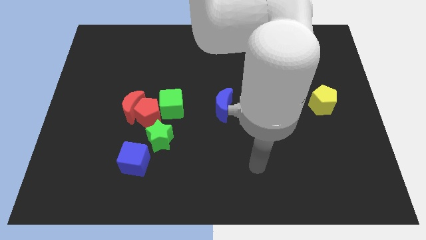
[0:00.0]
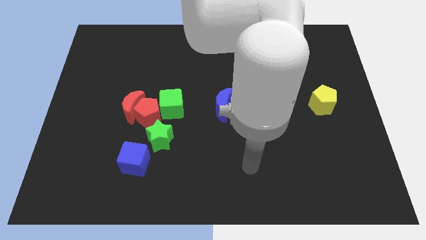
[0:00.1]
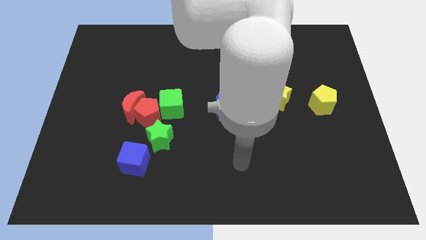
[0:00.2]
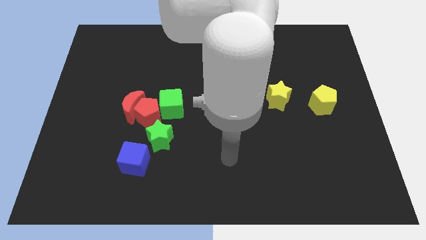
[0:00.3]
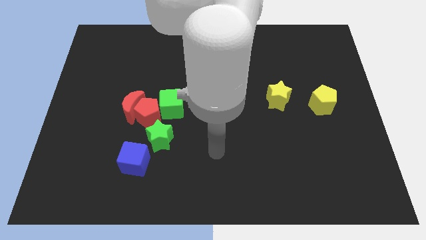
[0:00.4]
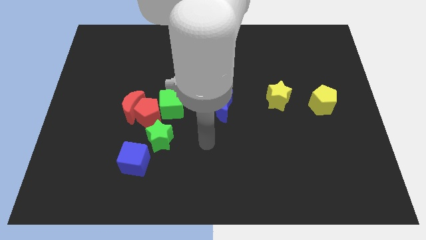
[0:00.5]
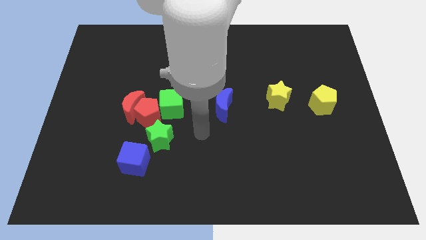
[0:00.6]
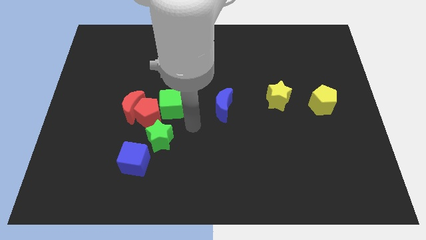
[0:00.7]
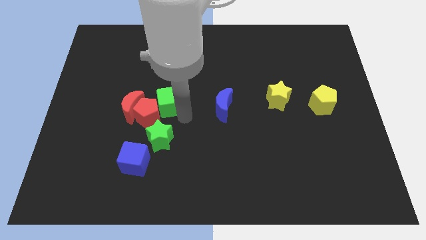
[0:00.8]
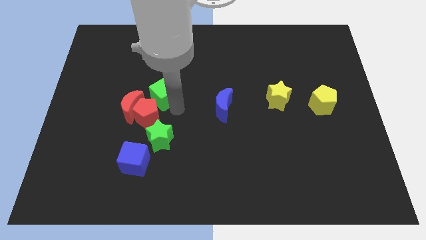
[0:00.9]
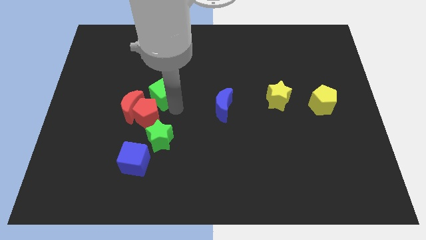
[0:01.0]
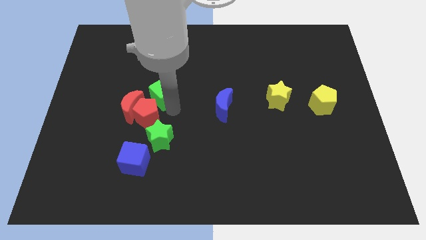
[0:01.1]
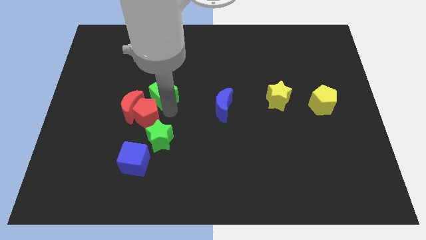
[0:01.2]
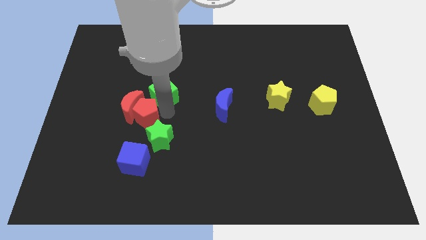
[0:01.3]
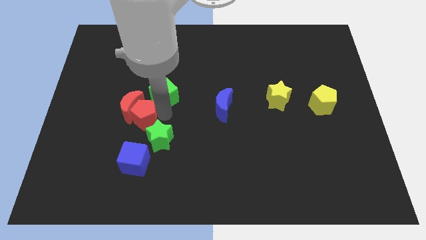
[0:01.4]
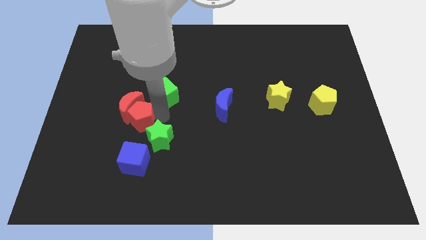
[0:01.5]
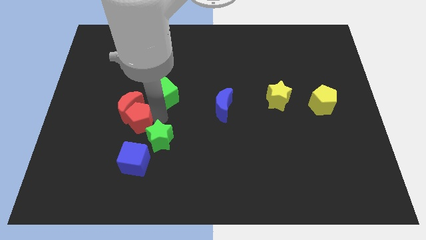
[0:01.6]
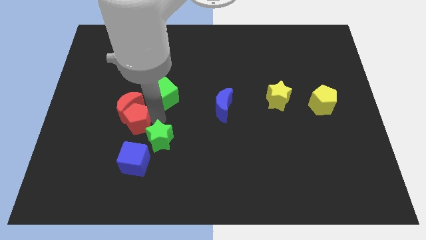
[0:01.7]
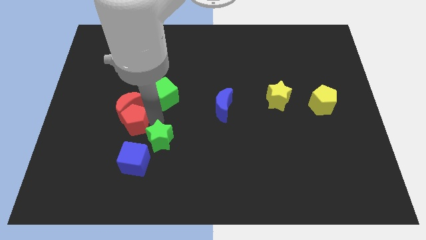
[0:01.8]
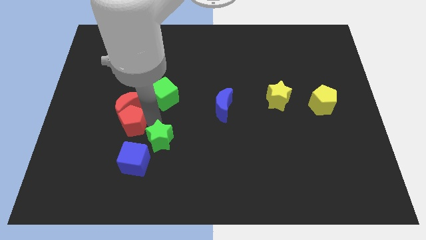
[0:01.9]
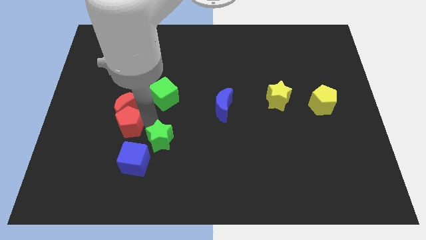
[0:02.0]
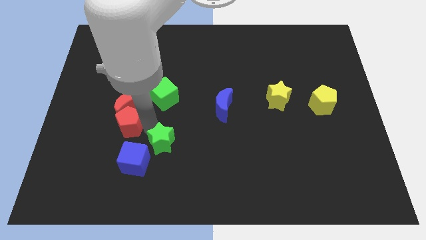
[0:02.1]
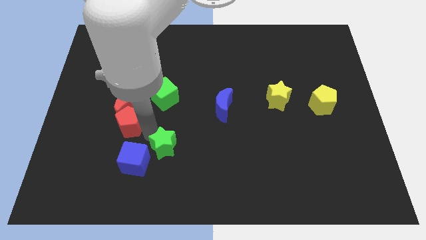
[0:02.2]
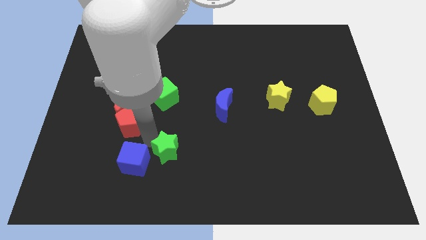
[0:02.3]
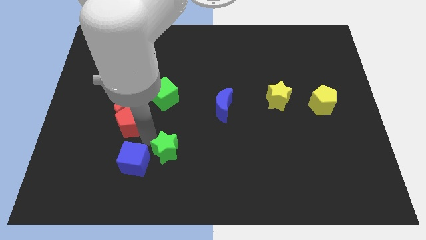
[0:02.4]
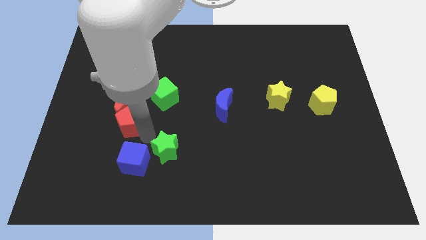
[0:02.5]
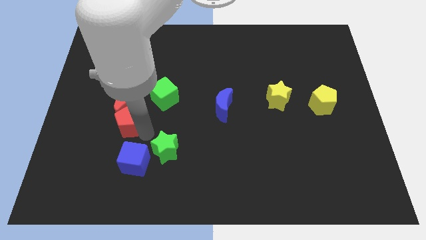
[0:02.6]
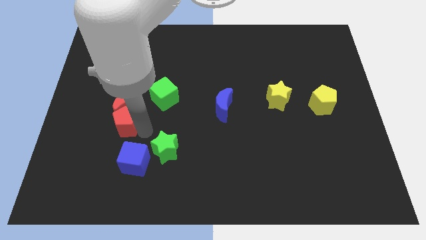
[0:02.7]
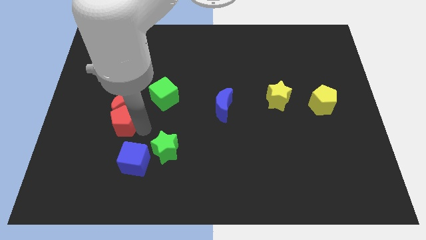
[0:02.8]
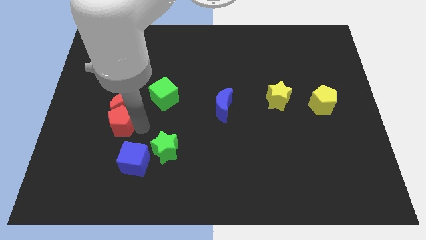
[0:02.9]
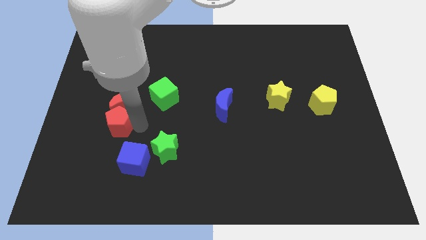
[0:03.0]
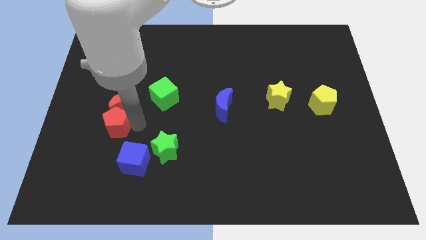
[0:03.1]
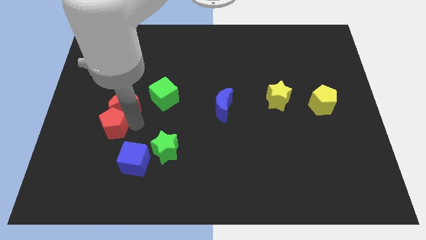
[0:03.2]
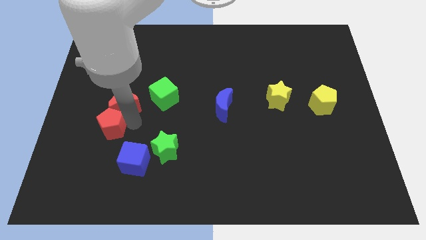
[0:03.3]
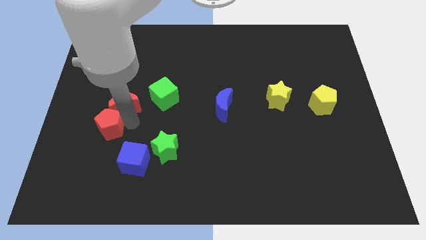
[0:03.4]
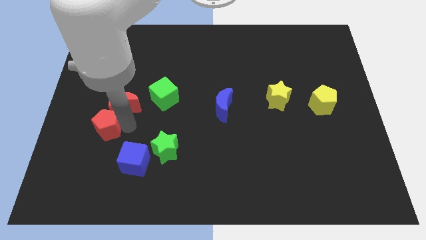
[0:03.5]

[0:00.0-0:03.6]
move the red pentagon away from the red moon, green cube, and green star

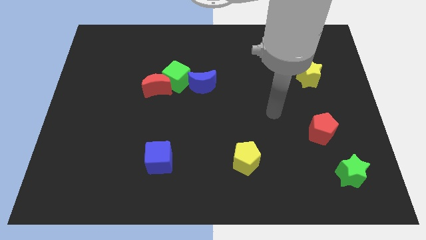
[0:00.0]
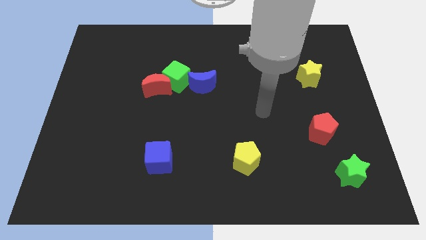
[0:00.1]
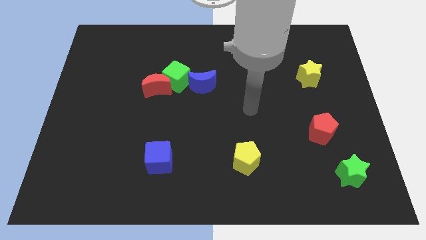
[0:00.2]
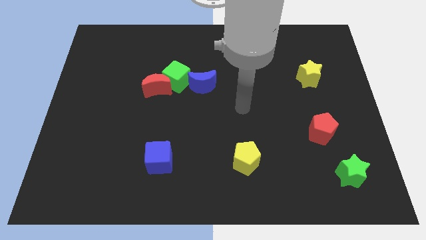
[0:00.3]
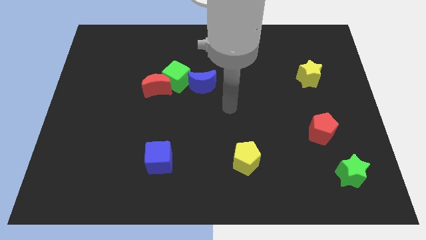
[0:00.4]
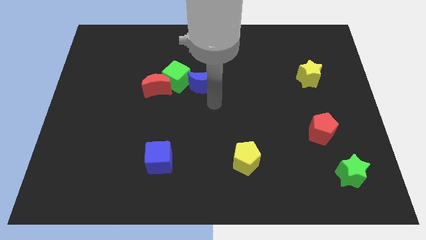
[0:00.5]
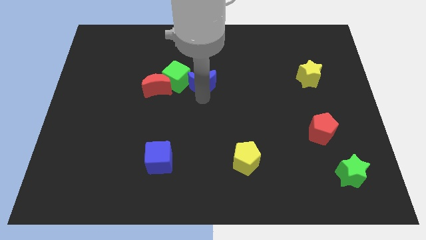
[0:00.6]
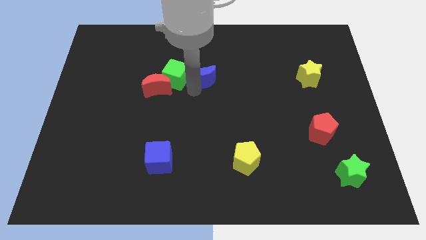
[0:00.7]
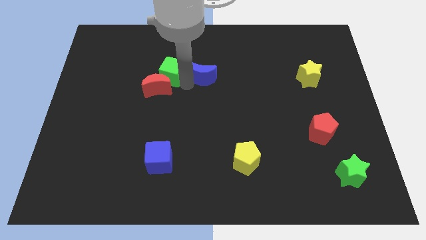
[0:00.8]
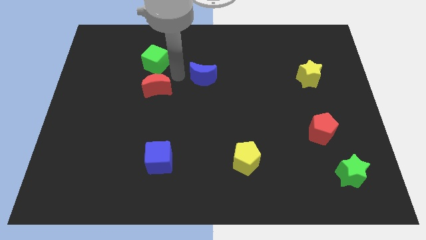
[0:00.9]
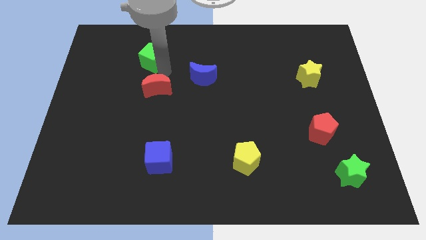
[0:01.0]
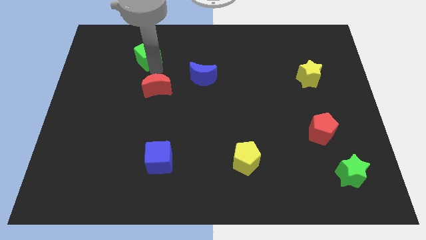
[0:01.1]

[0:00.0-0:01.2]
separate the red moon from the green cube

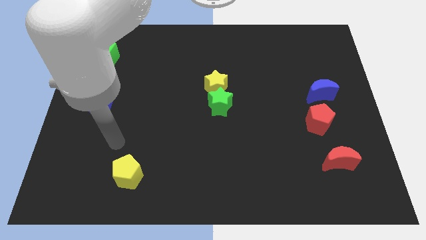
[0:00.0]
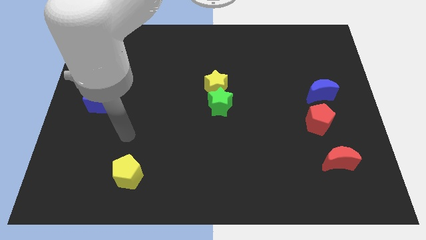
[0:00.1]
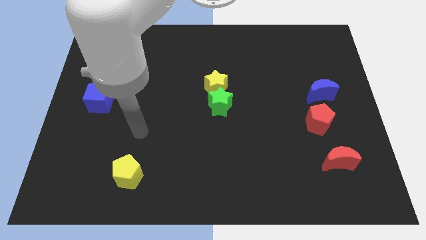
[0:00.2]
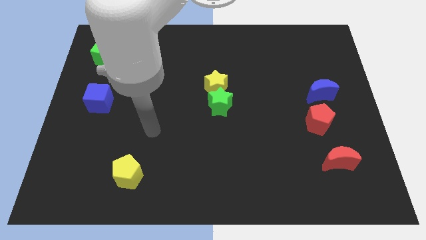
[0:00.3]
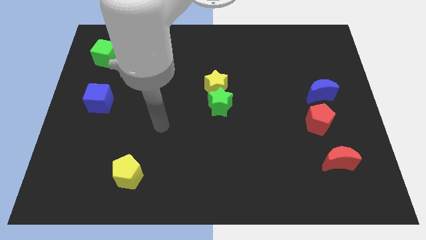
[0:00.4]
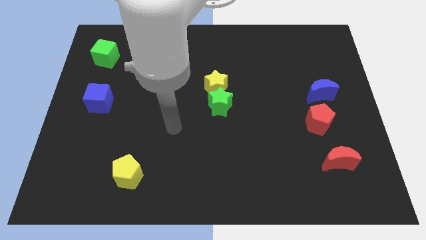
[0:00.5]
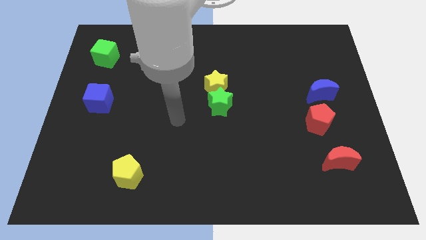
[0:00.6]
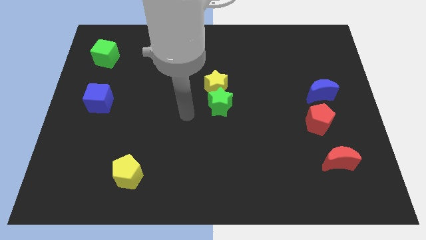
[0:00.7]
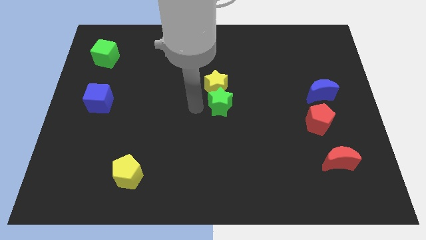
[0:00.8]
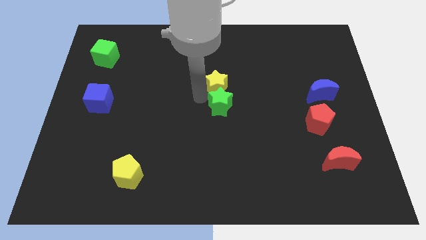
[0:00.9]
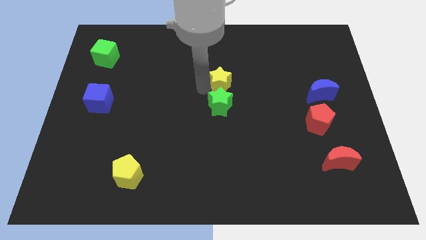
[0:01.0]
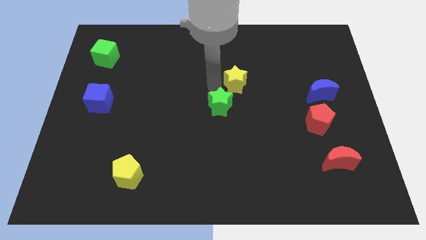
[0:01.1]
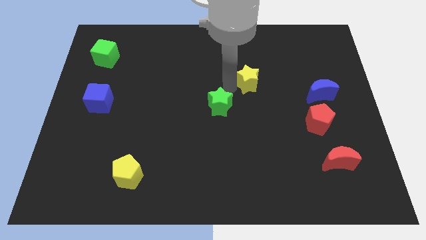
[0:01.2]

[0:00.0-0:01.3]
pull the green star apart from the yellow star

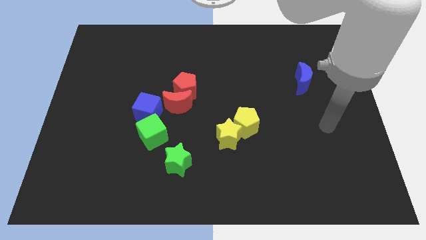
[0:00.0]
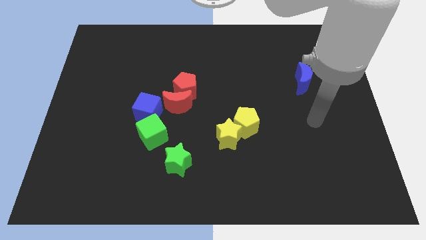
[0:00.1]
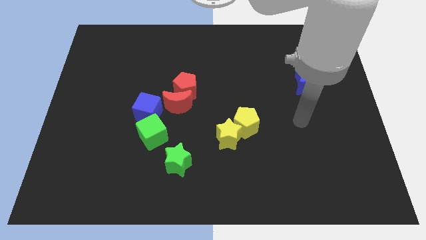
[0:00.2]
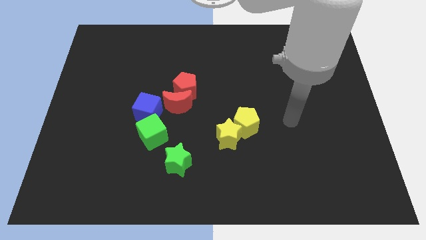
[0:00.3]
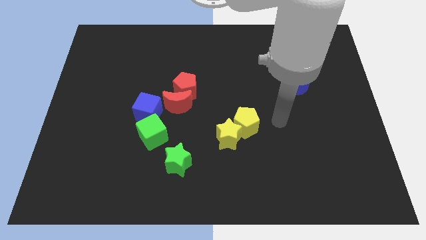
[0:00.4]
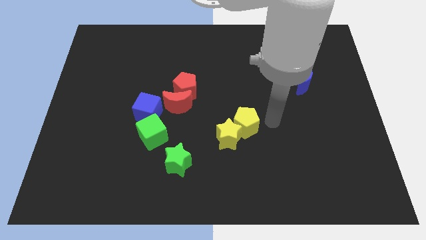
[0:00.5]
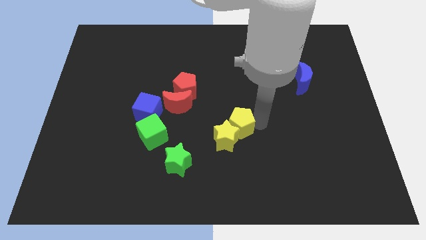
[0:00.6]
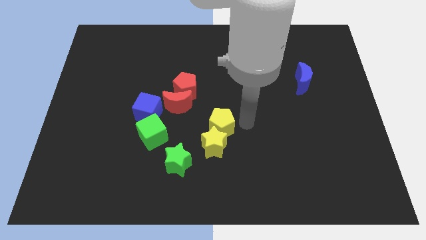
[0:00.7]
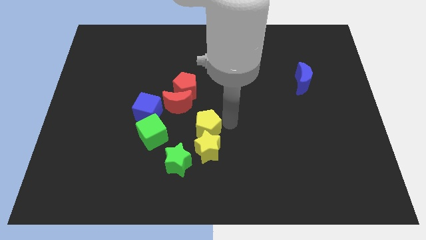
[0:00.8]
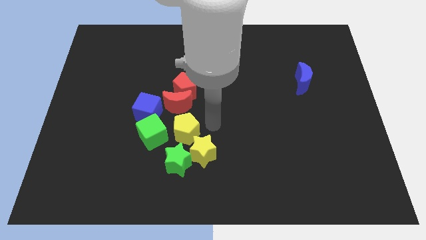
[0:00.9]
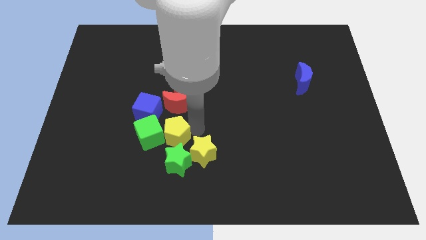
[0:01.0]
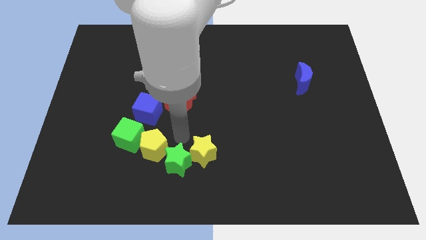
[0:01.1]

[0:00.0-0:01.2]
pull the yellow star apart from the yellow pentagon

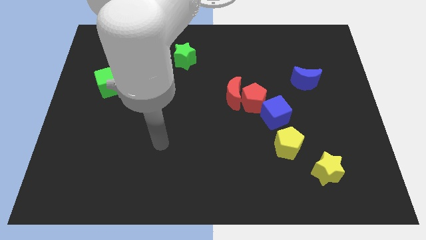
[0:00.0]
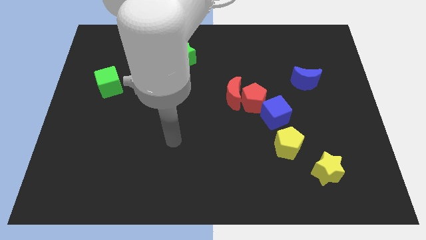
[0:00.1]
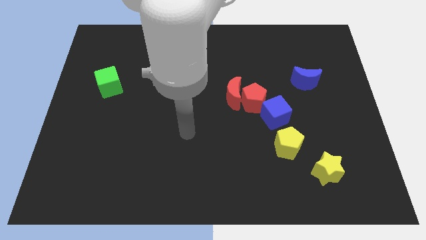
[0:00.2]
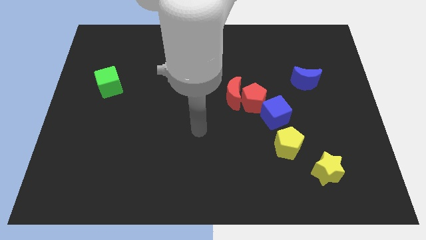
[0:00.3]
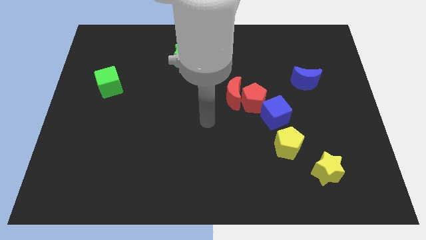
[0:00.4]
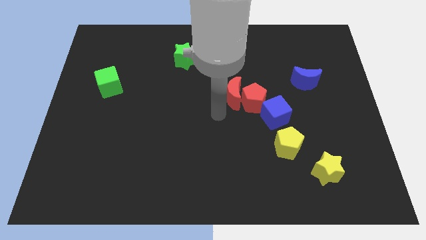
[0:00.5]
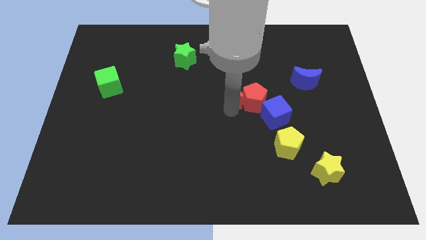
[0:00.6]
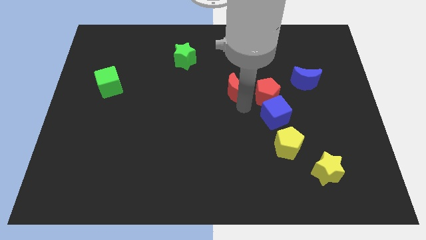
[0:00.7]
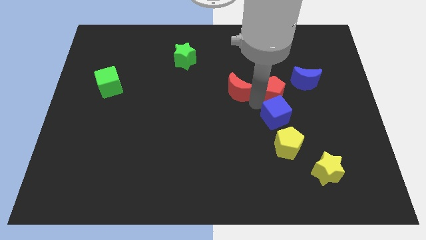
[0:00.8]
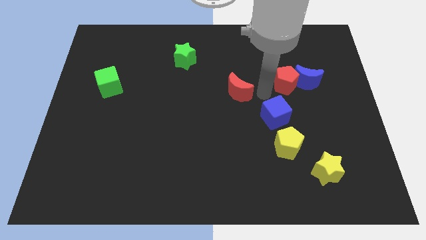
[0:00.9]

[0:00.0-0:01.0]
move the red moon away from the red pentagon

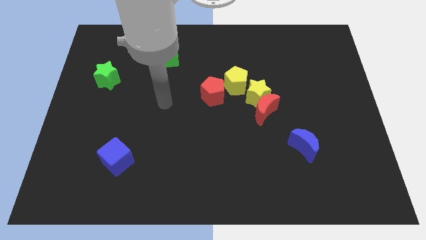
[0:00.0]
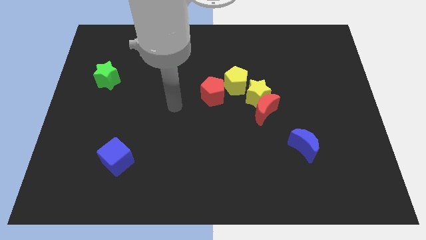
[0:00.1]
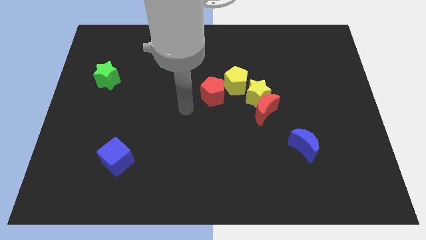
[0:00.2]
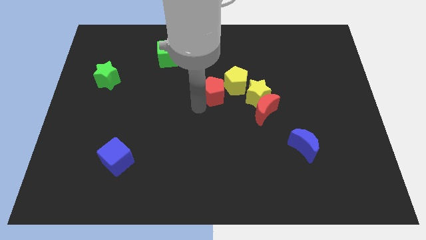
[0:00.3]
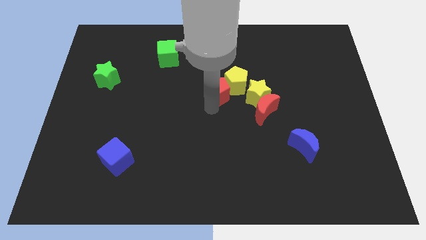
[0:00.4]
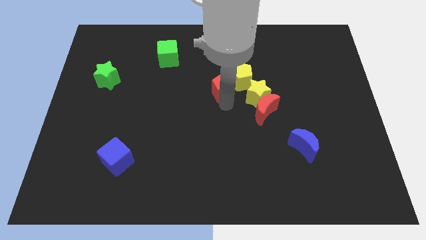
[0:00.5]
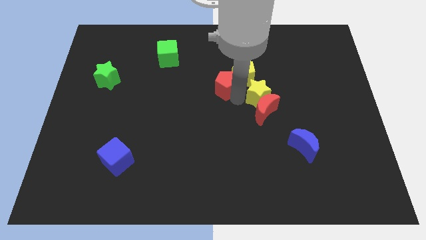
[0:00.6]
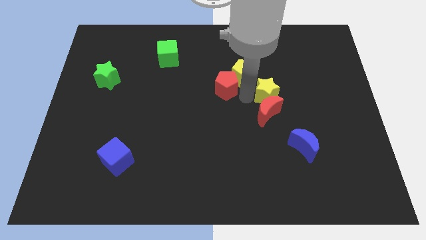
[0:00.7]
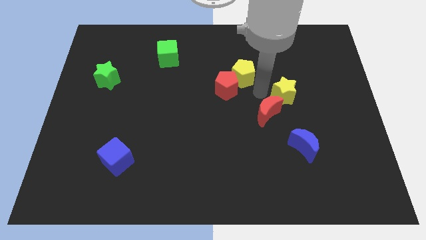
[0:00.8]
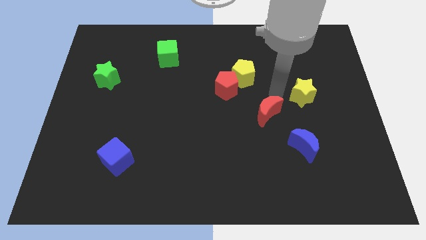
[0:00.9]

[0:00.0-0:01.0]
separate the red moon from the yellow star
